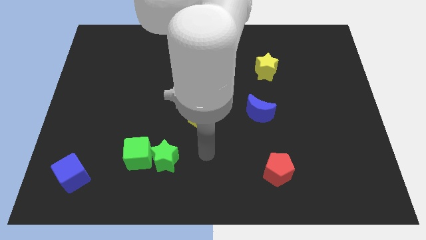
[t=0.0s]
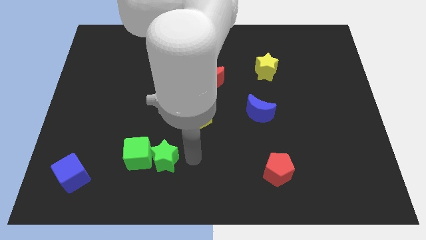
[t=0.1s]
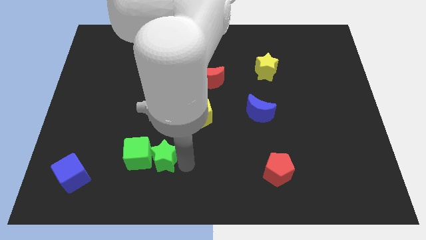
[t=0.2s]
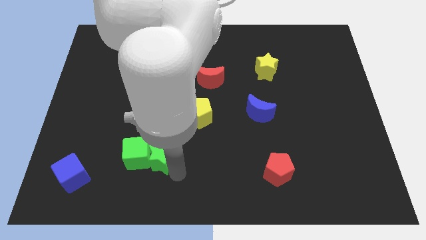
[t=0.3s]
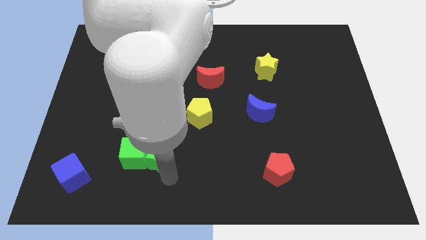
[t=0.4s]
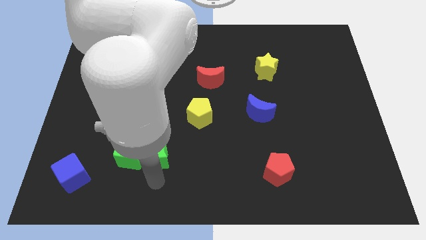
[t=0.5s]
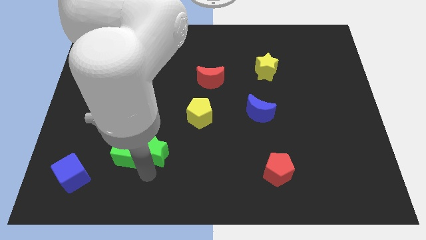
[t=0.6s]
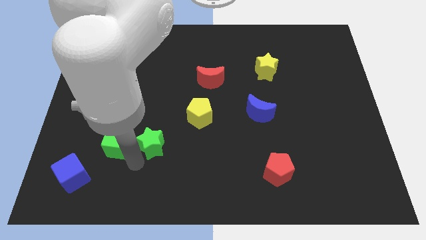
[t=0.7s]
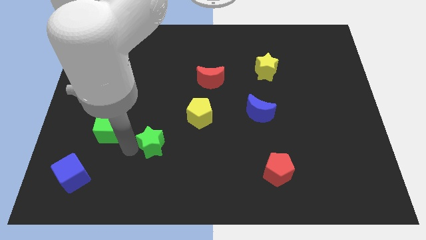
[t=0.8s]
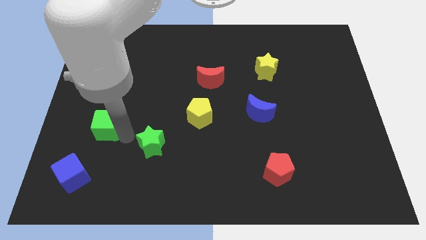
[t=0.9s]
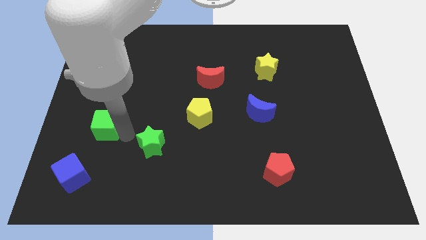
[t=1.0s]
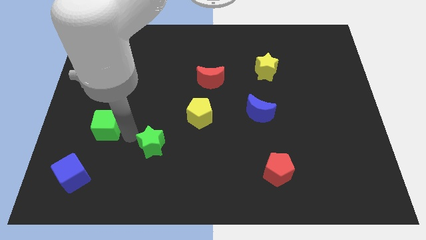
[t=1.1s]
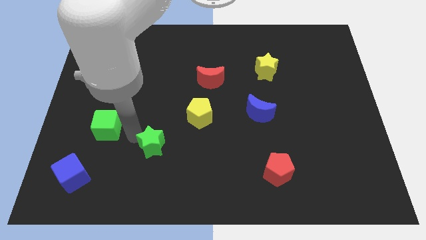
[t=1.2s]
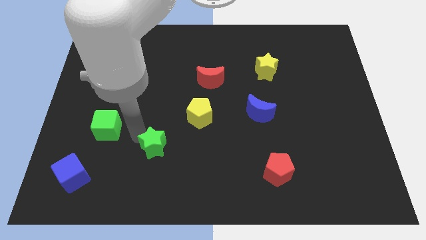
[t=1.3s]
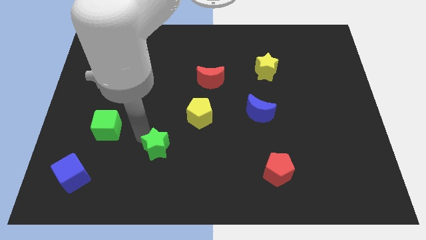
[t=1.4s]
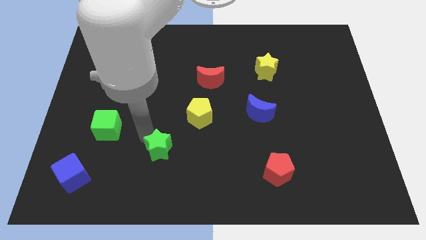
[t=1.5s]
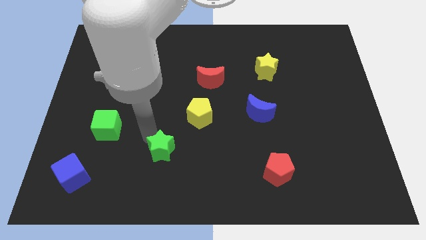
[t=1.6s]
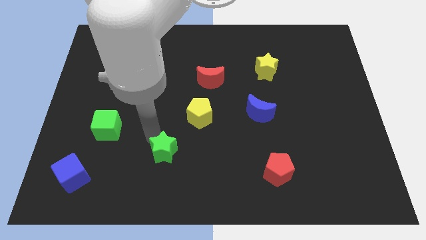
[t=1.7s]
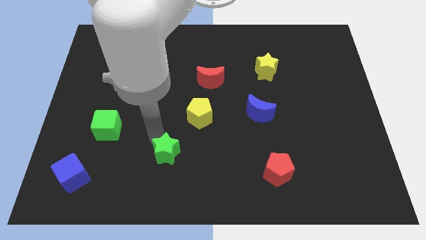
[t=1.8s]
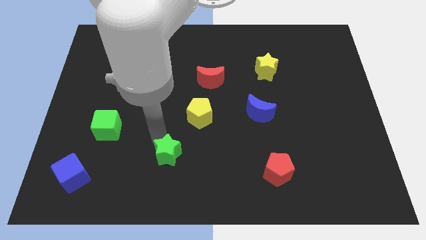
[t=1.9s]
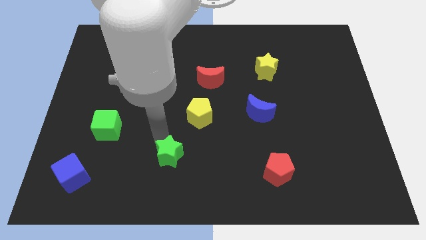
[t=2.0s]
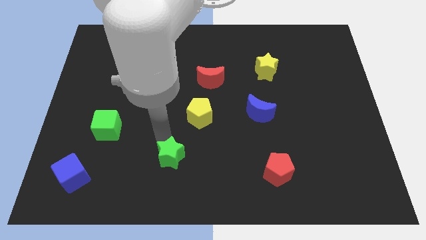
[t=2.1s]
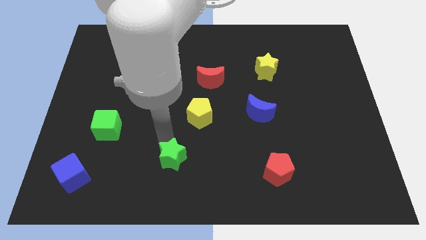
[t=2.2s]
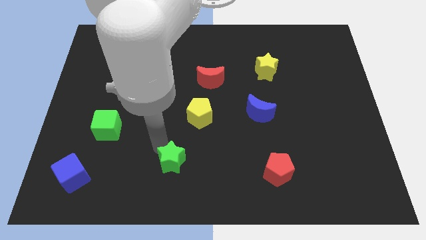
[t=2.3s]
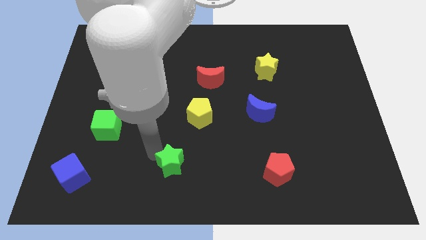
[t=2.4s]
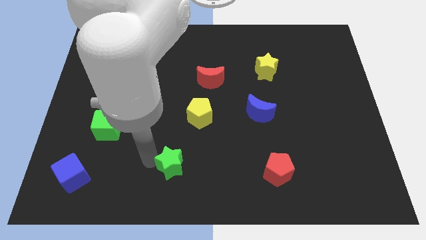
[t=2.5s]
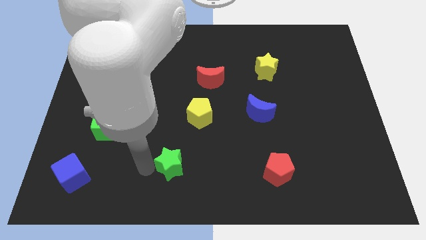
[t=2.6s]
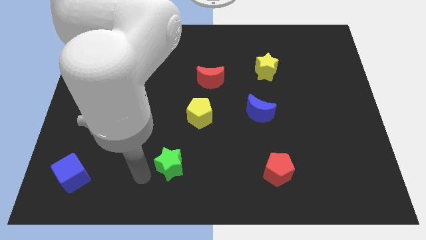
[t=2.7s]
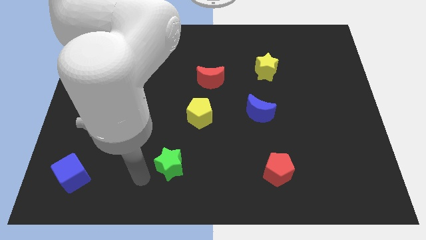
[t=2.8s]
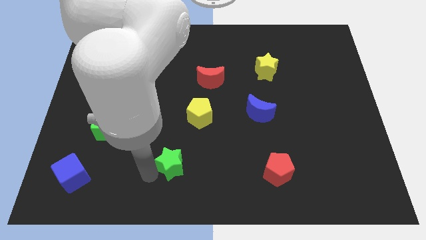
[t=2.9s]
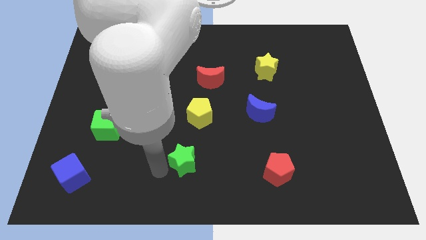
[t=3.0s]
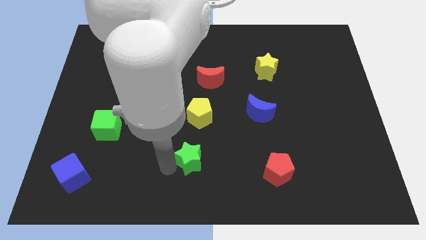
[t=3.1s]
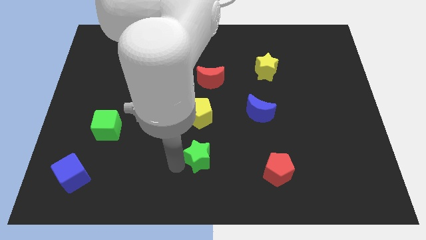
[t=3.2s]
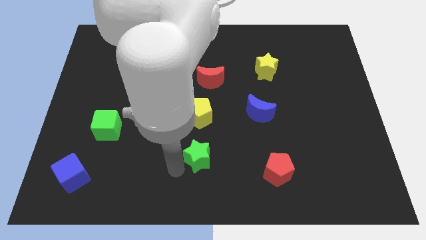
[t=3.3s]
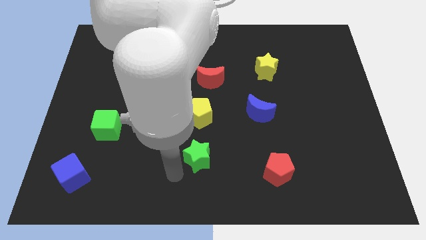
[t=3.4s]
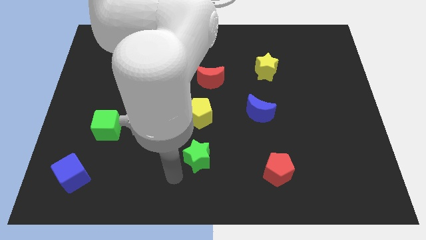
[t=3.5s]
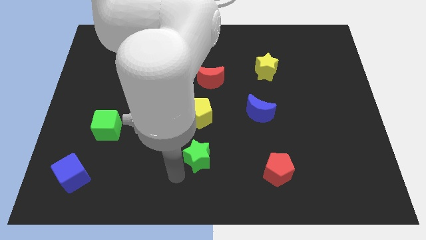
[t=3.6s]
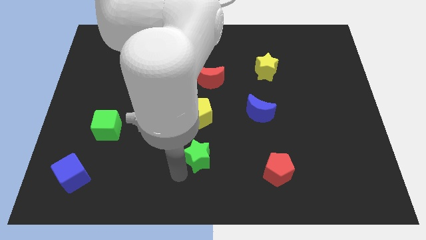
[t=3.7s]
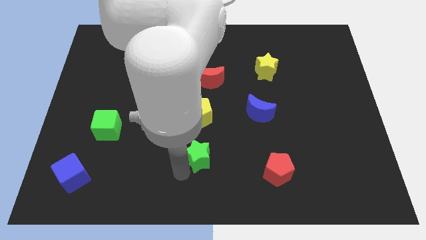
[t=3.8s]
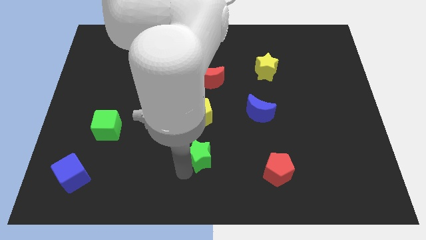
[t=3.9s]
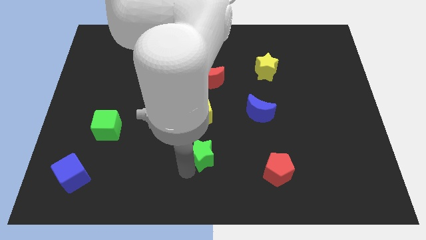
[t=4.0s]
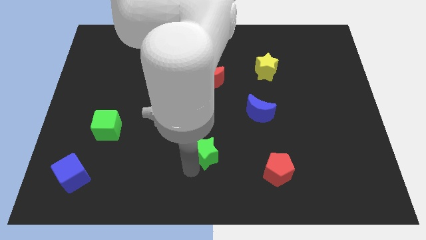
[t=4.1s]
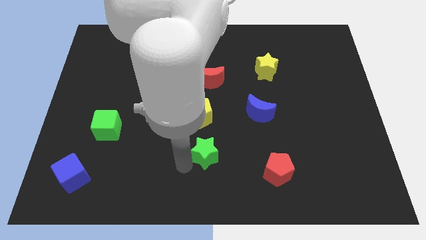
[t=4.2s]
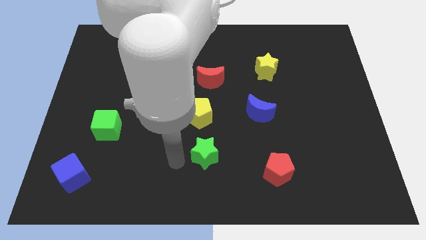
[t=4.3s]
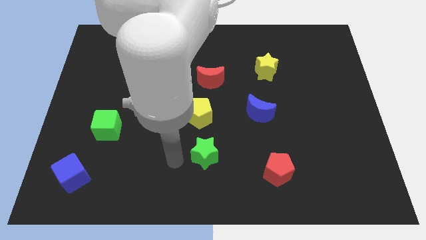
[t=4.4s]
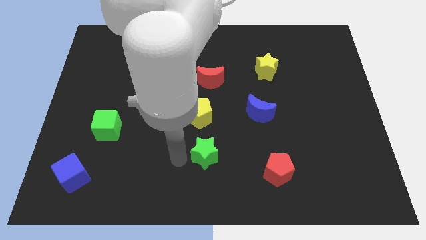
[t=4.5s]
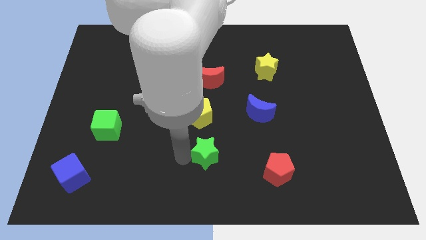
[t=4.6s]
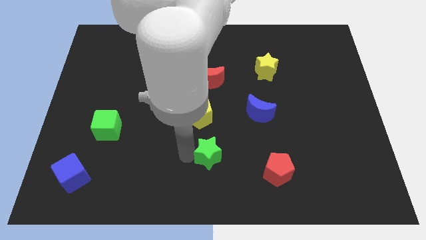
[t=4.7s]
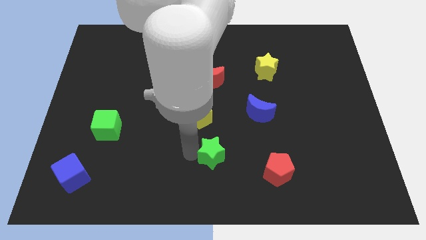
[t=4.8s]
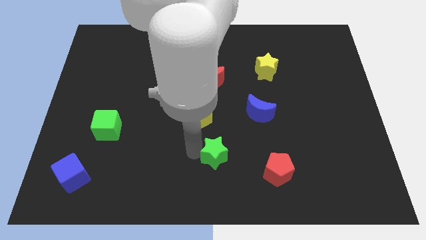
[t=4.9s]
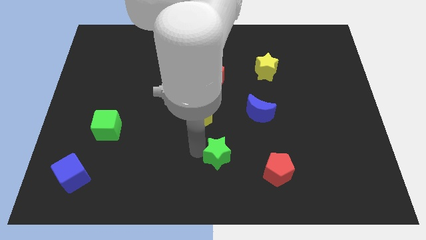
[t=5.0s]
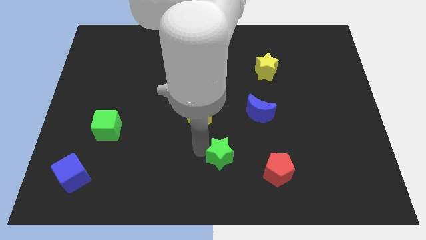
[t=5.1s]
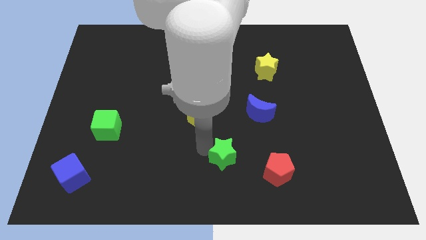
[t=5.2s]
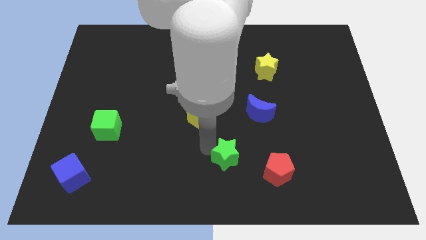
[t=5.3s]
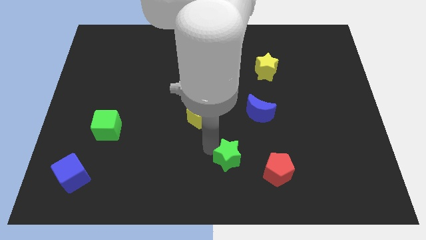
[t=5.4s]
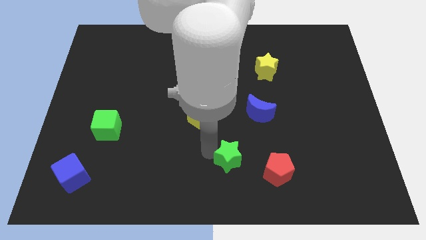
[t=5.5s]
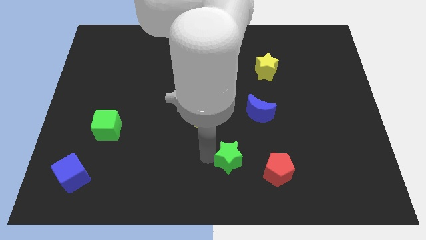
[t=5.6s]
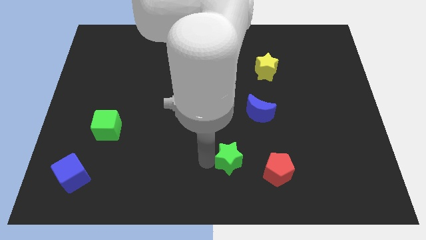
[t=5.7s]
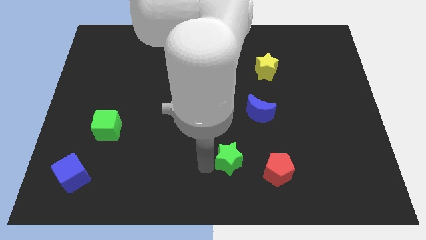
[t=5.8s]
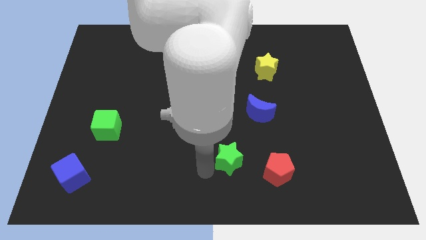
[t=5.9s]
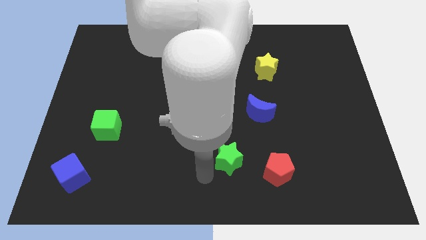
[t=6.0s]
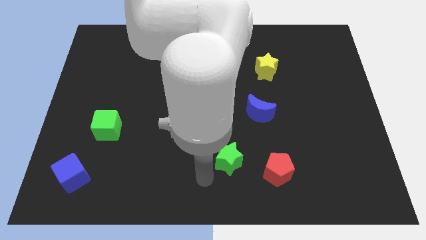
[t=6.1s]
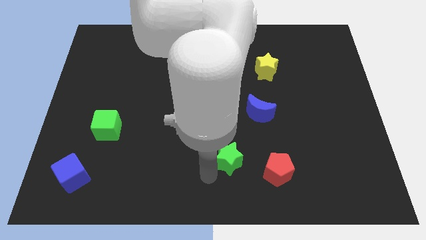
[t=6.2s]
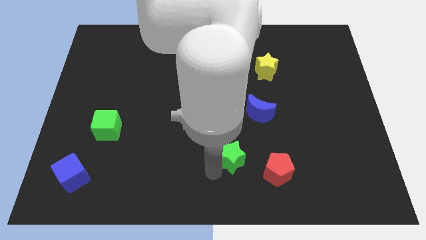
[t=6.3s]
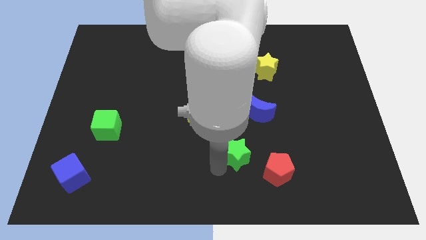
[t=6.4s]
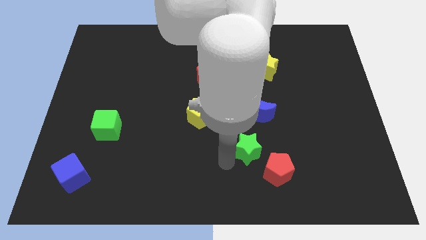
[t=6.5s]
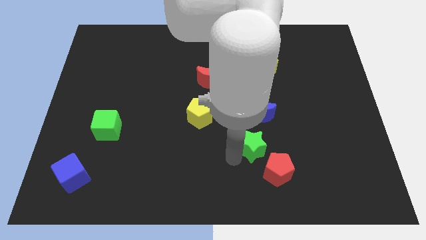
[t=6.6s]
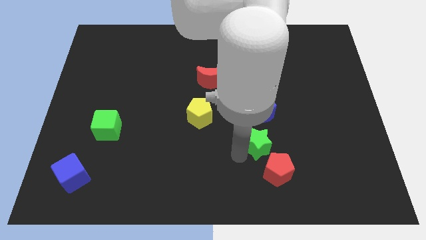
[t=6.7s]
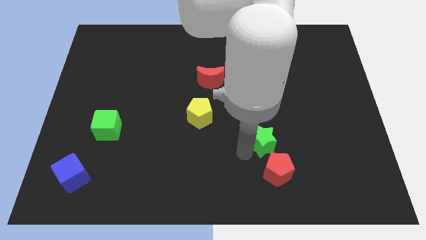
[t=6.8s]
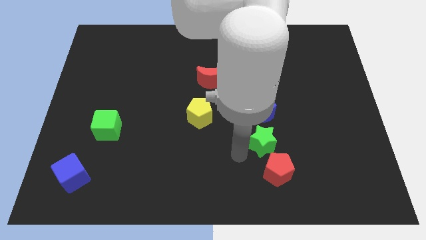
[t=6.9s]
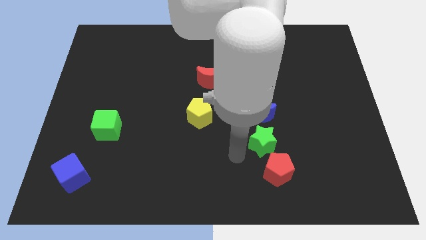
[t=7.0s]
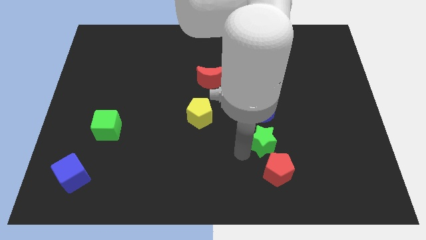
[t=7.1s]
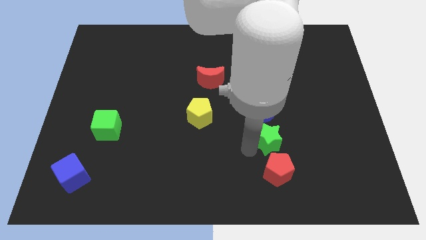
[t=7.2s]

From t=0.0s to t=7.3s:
slide the green star diagonally down and to the right of the blue moon
